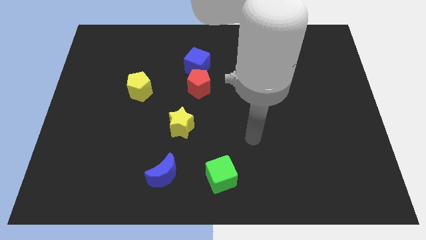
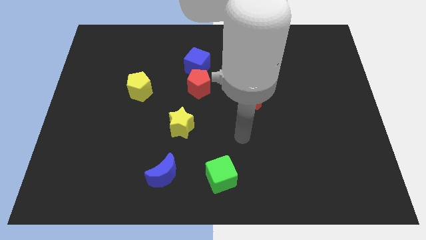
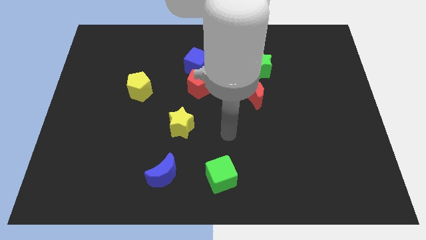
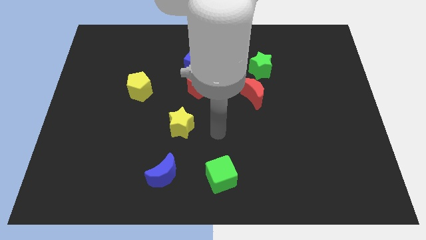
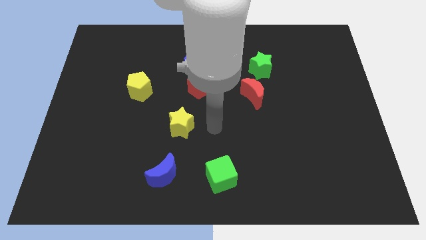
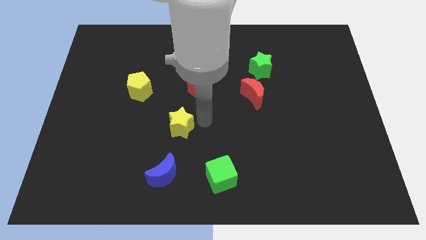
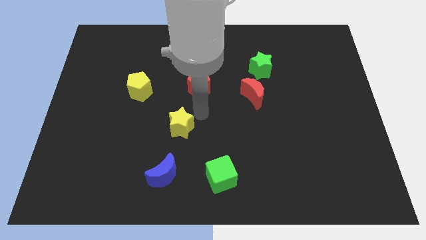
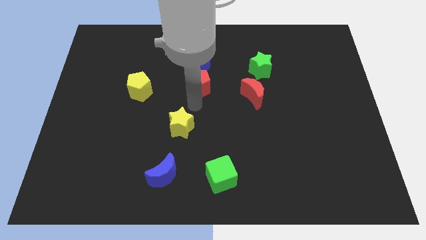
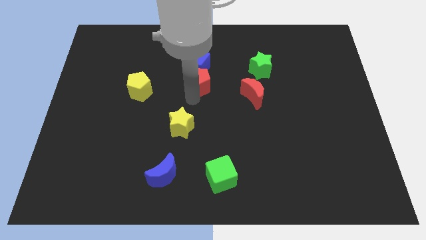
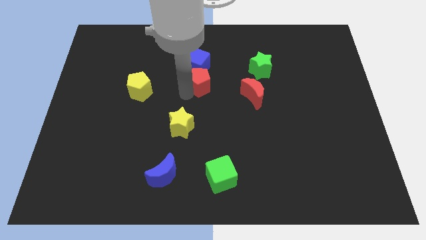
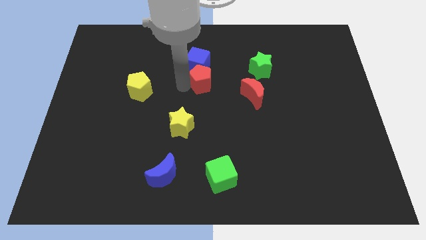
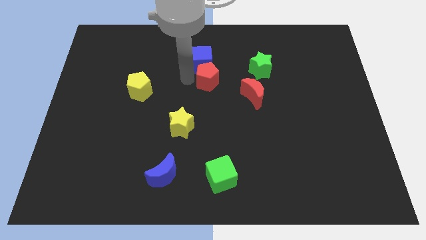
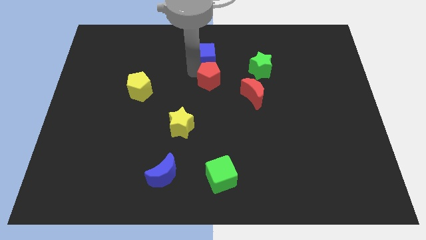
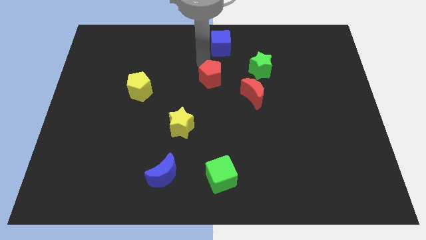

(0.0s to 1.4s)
move the red pentagon away from the blue cube

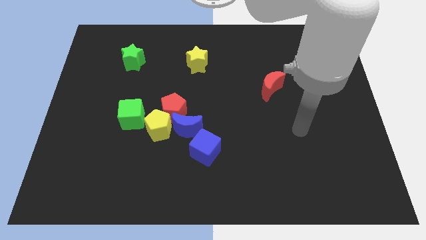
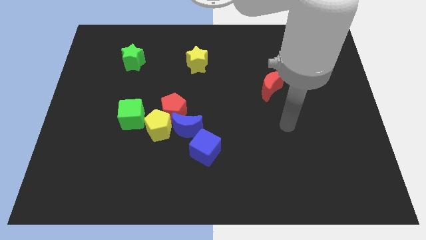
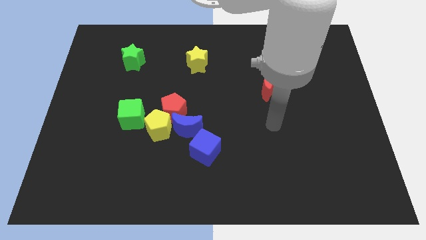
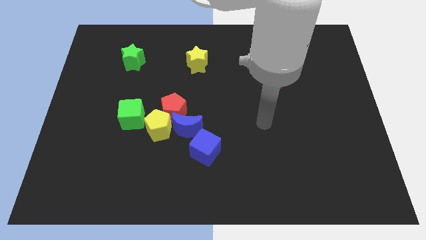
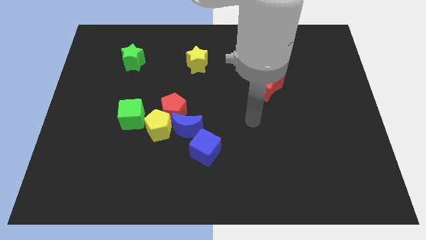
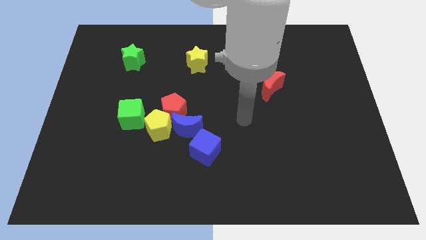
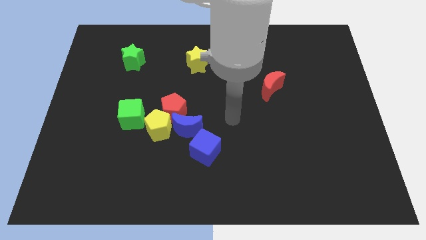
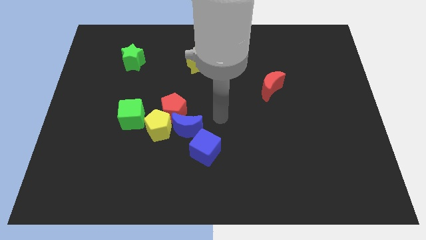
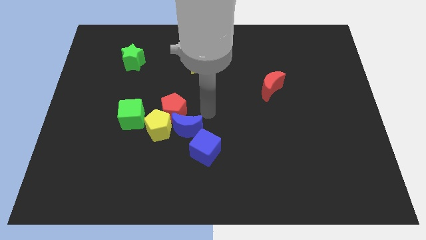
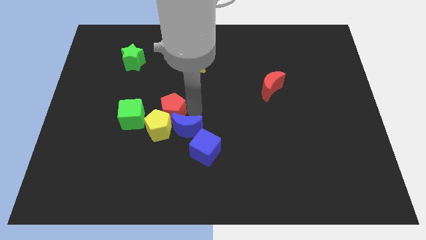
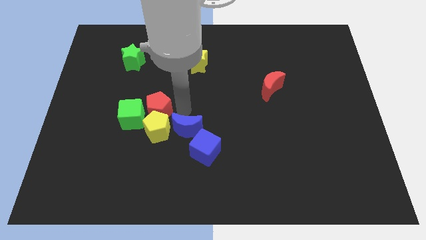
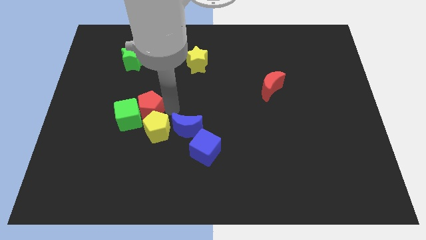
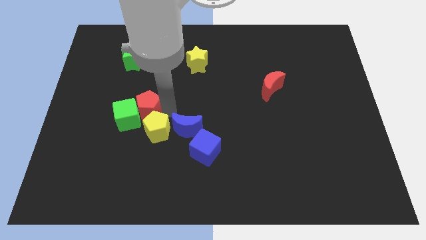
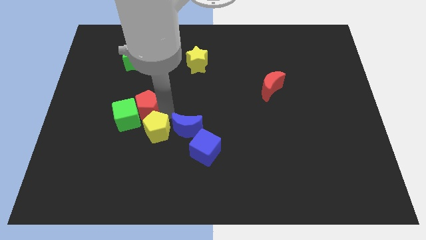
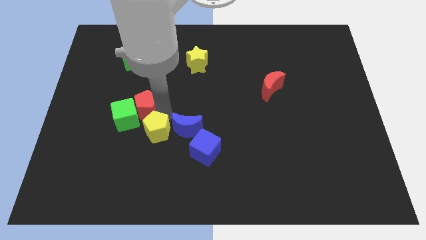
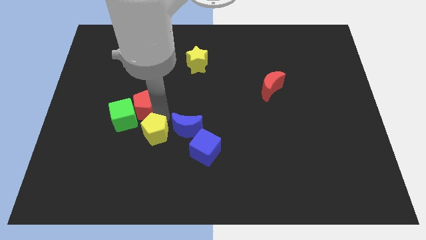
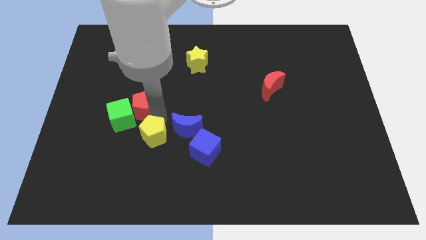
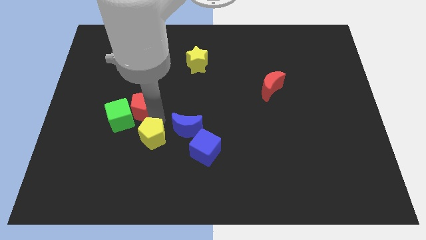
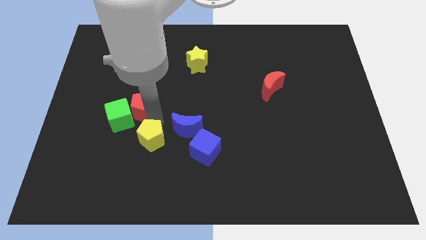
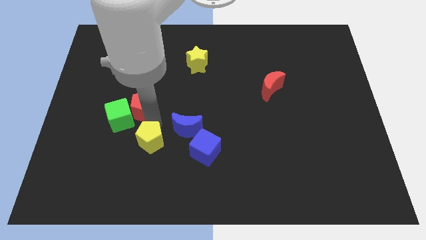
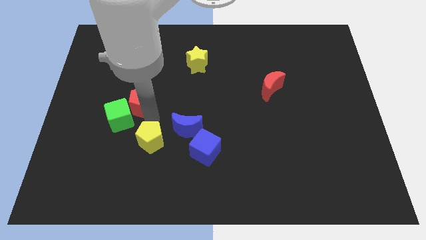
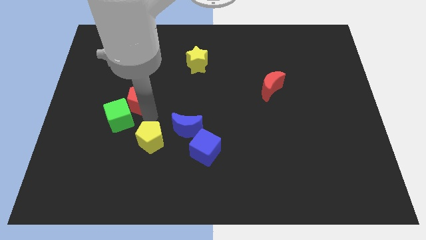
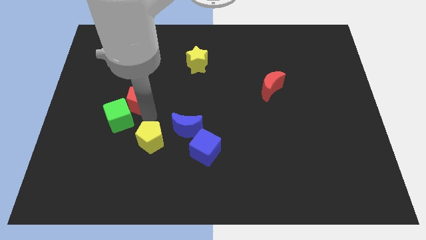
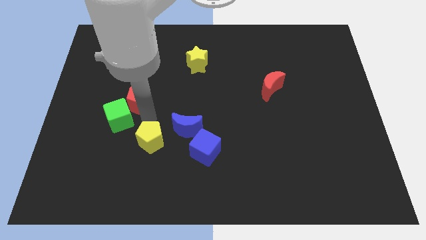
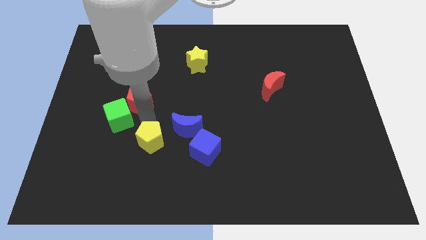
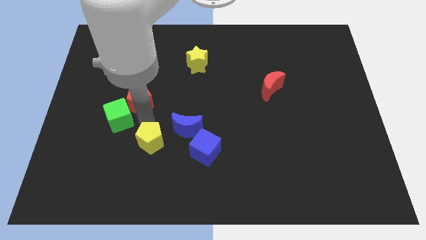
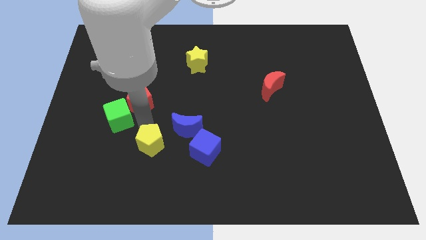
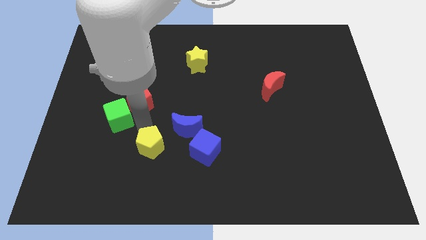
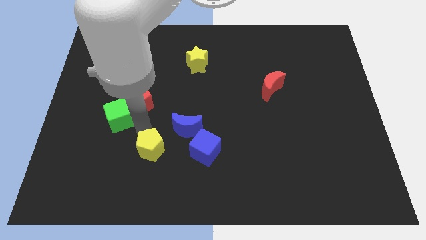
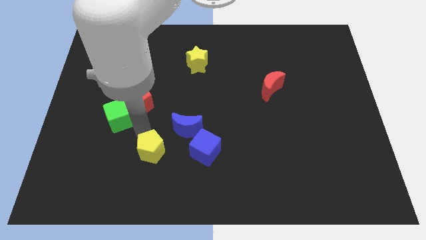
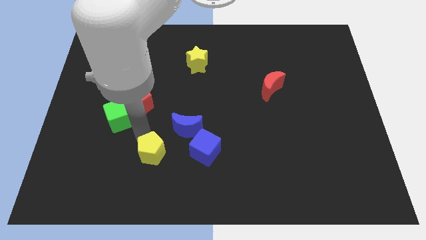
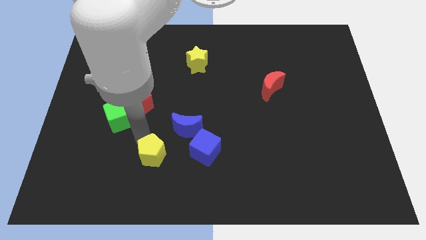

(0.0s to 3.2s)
separate the yellow pentagon from the red pentagon, blue moon, and green cube

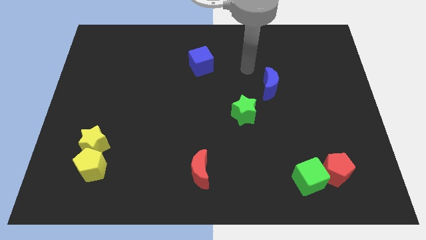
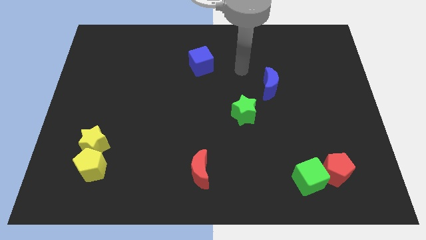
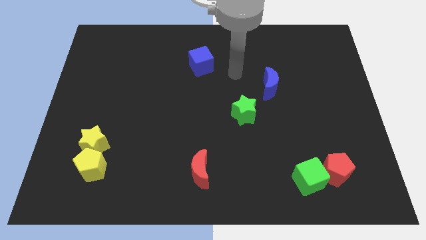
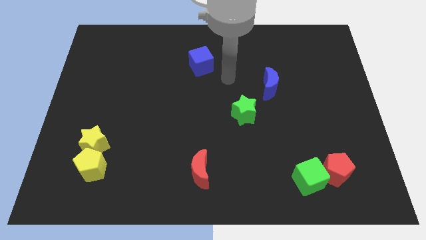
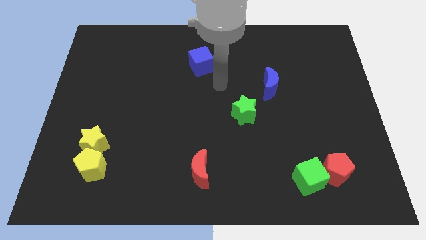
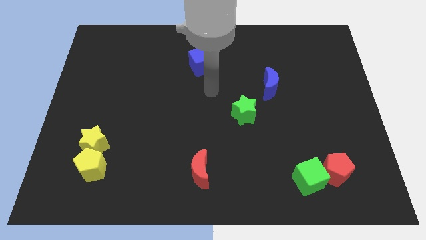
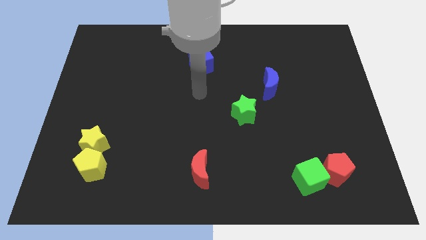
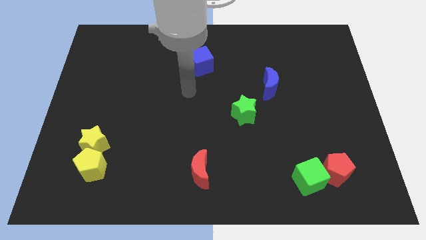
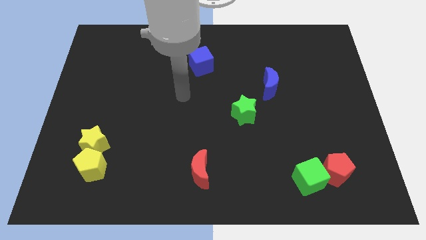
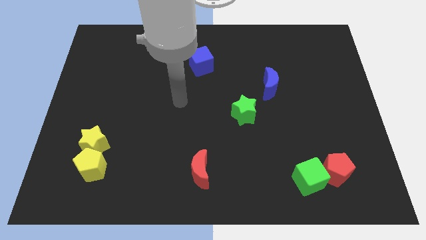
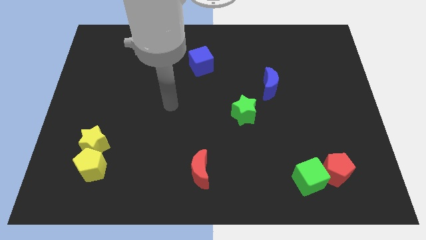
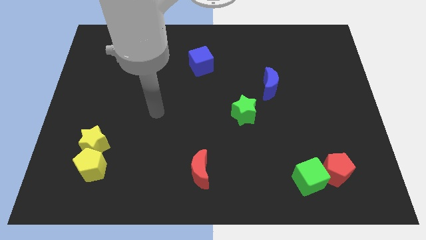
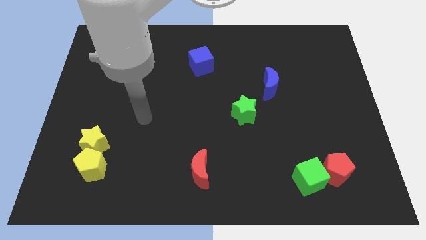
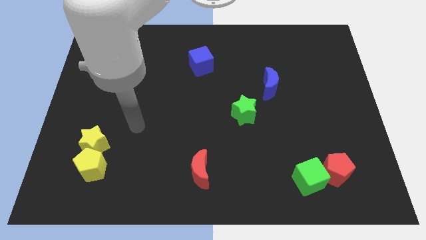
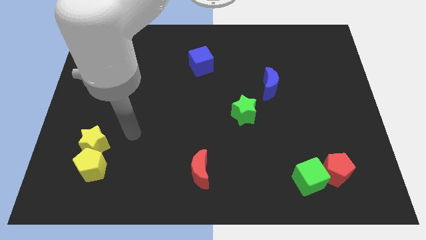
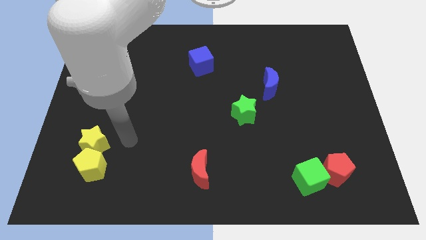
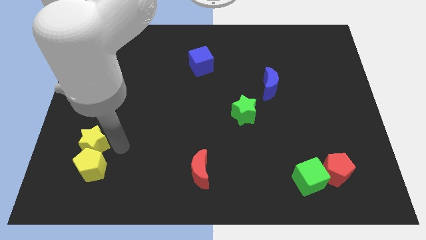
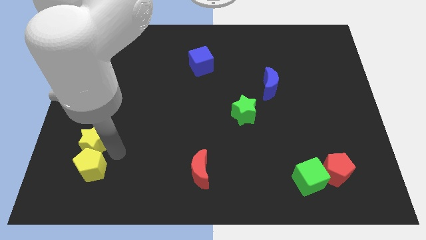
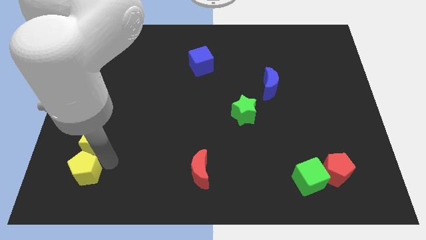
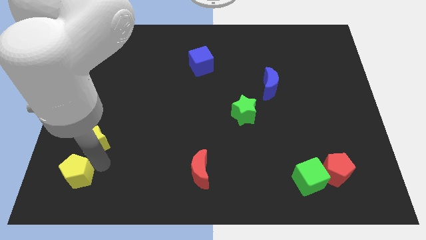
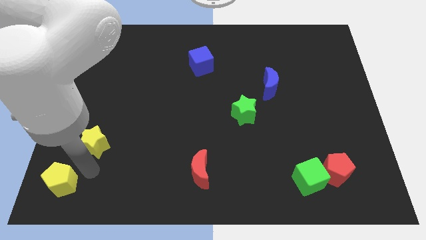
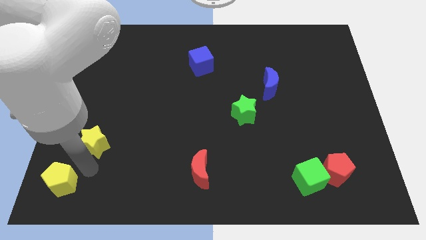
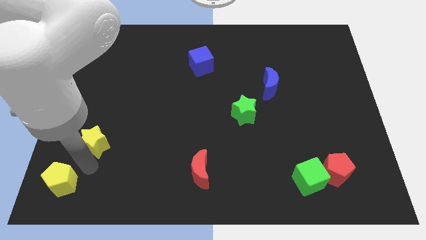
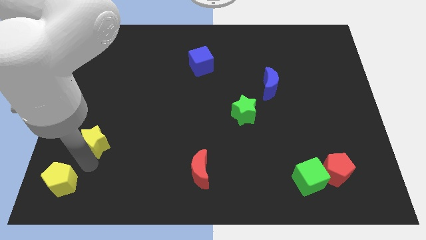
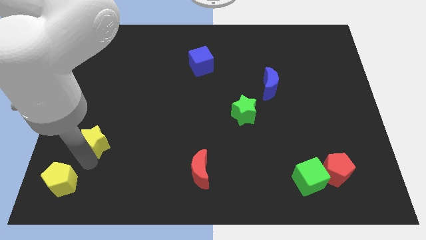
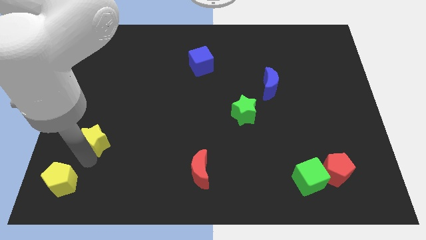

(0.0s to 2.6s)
pull the yellow star apart from the yellow pentagon

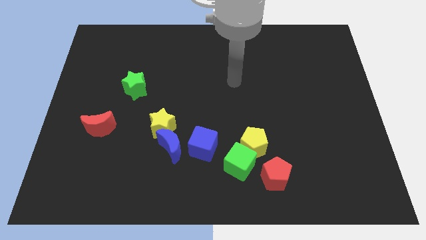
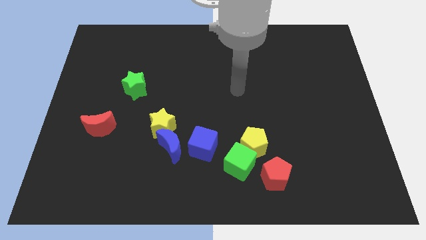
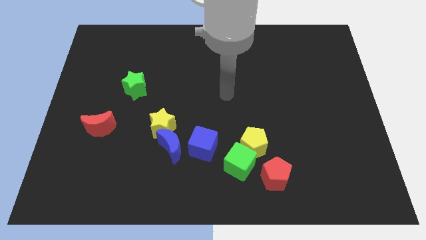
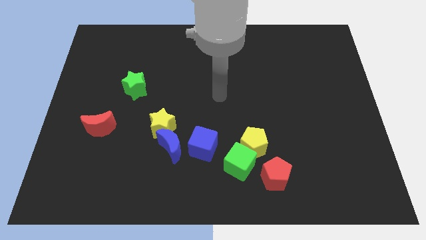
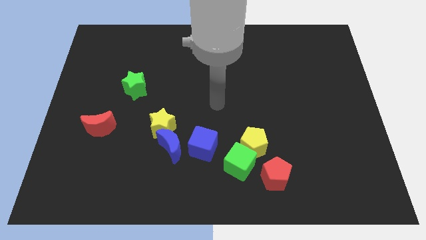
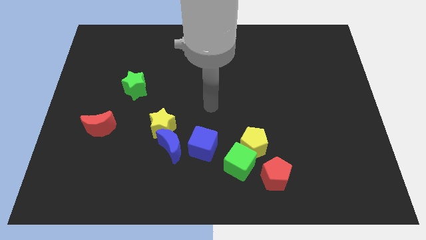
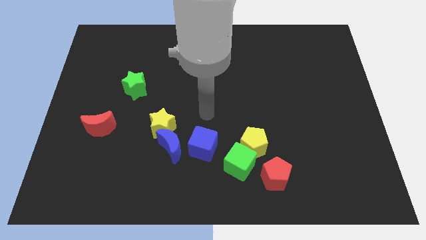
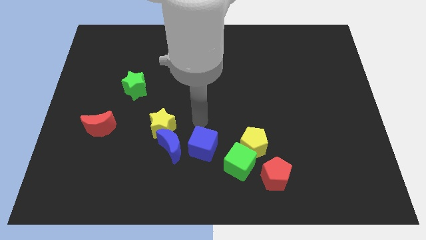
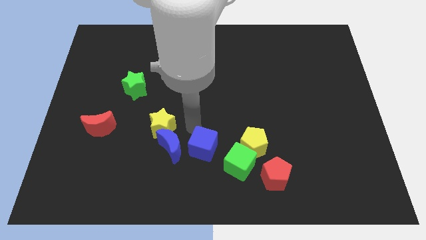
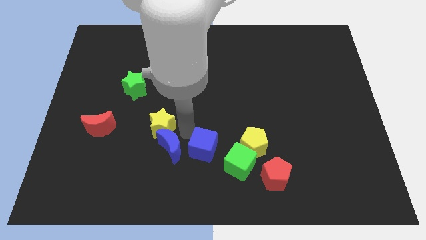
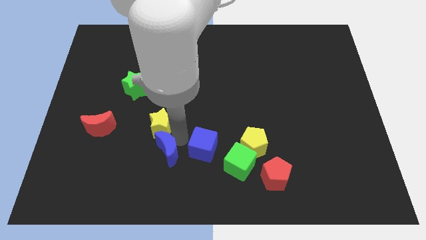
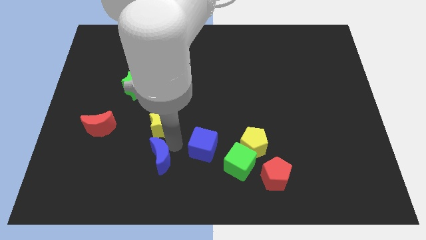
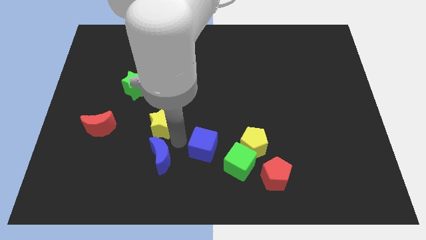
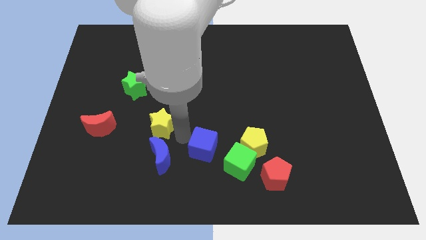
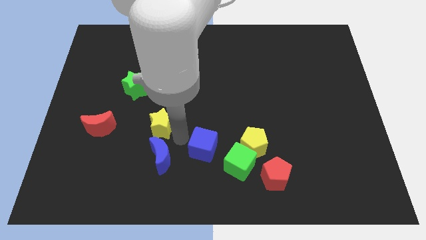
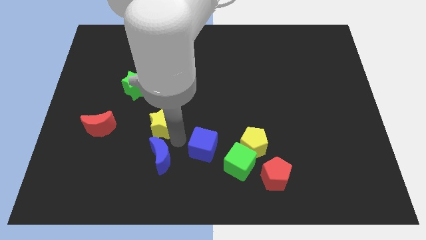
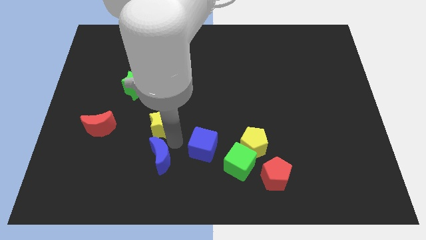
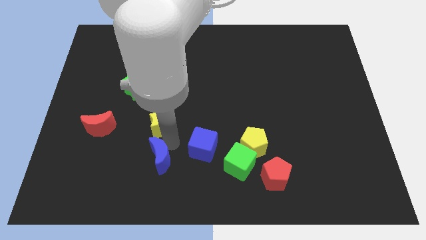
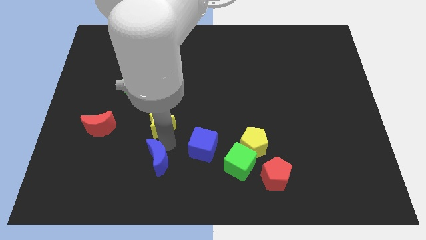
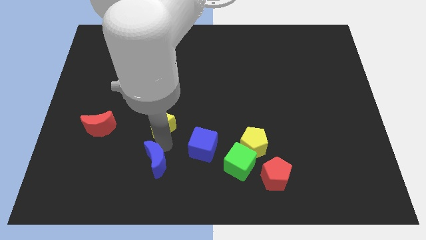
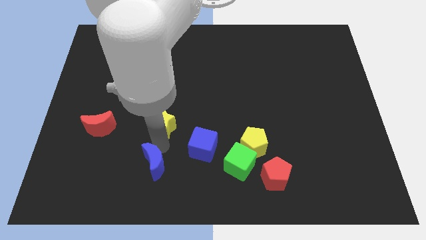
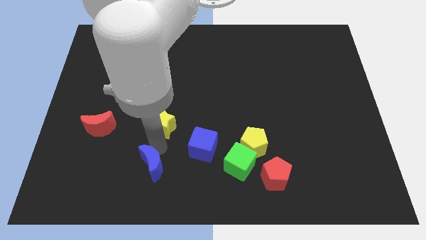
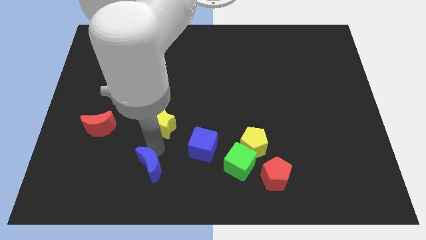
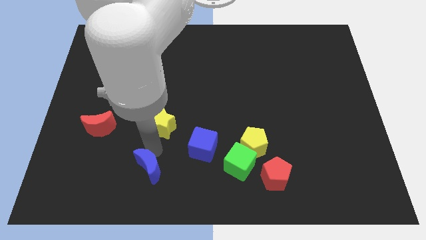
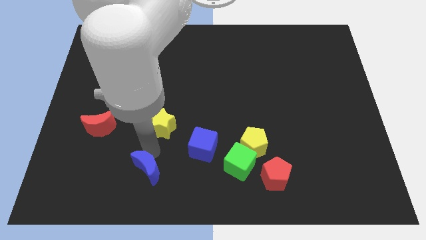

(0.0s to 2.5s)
move the blue moon away from the yellow star and blue cube
